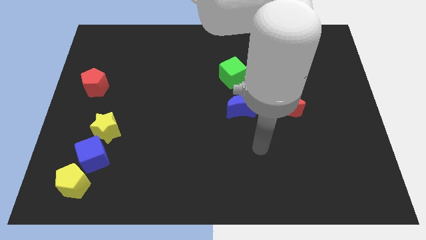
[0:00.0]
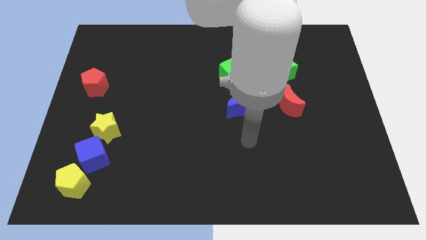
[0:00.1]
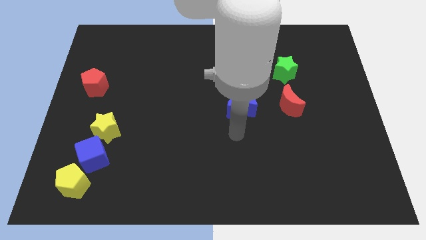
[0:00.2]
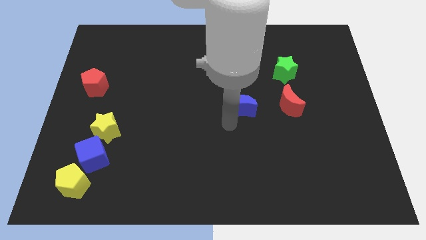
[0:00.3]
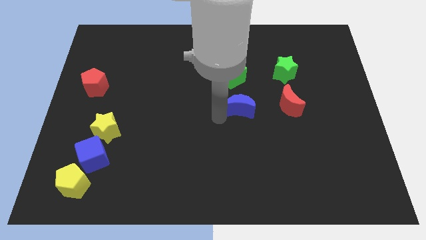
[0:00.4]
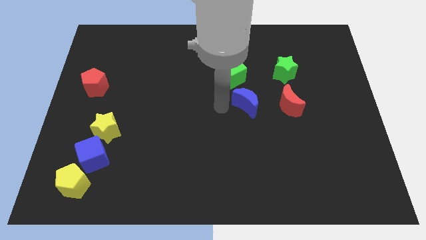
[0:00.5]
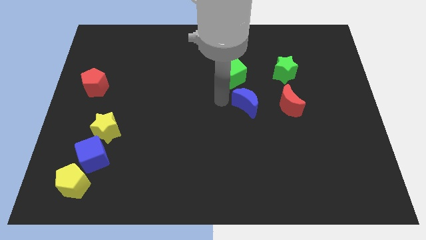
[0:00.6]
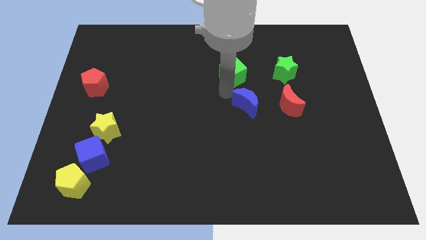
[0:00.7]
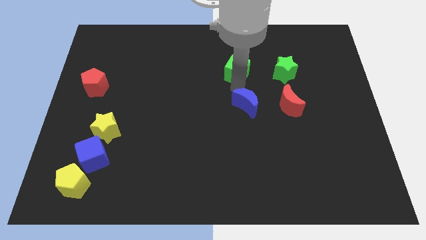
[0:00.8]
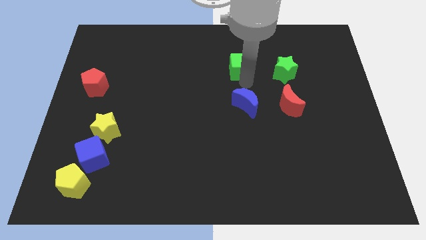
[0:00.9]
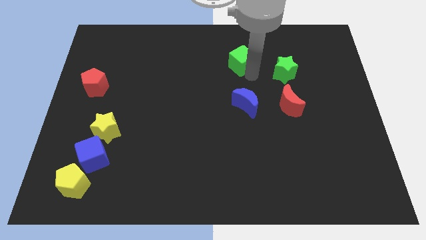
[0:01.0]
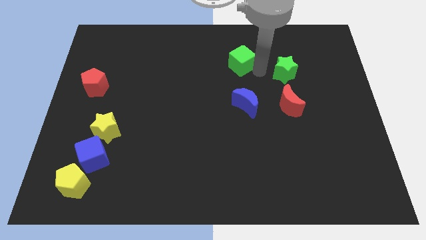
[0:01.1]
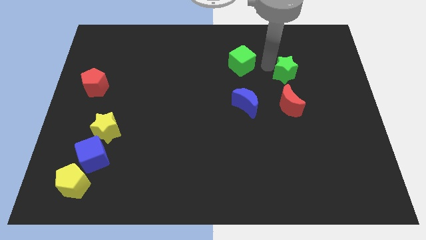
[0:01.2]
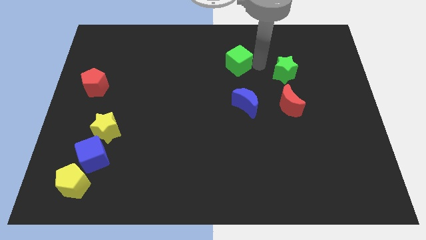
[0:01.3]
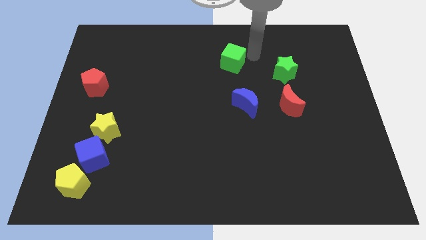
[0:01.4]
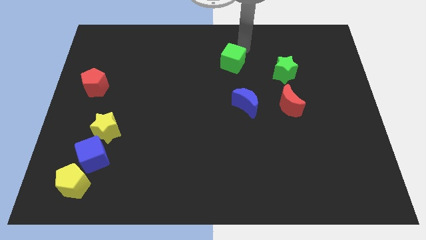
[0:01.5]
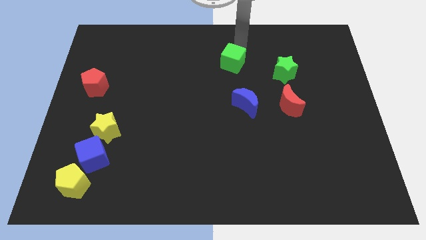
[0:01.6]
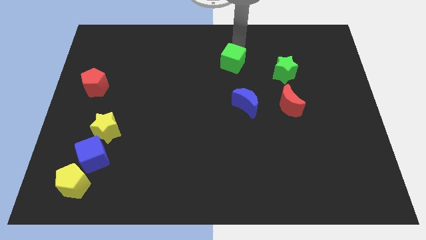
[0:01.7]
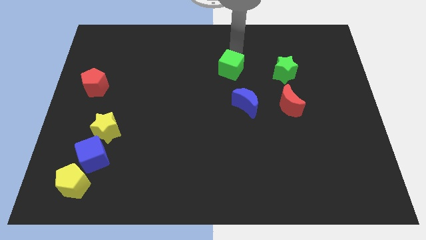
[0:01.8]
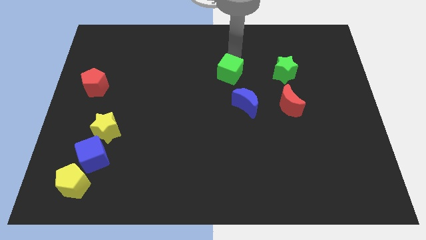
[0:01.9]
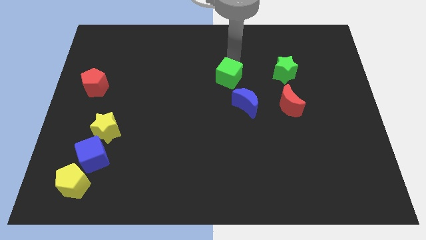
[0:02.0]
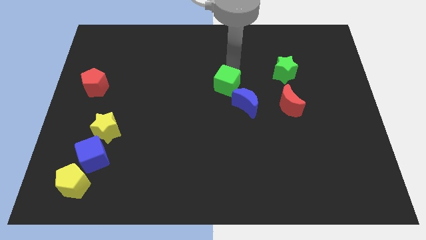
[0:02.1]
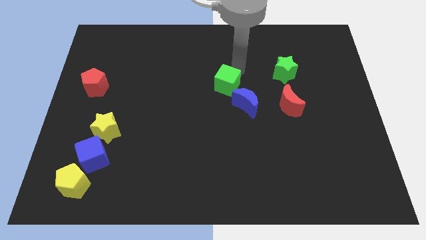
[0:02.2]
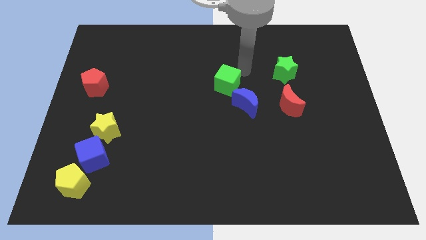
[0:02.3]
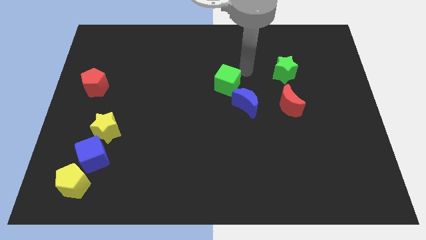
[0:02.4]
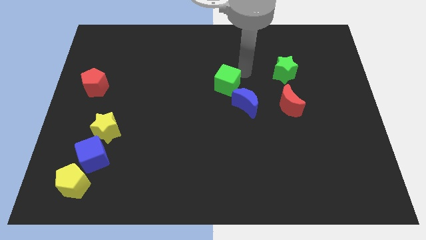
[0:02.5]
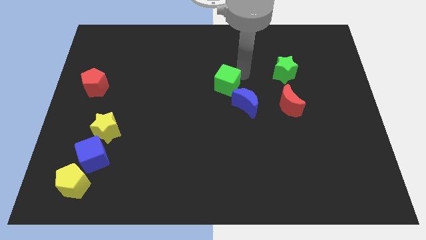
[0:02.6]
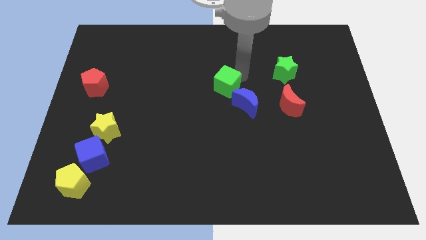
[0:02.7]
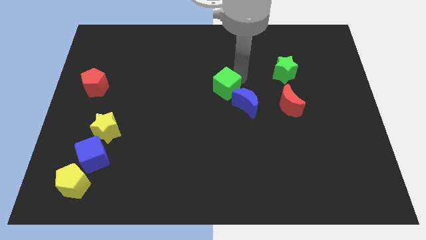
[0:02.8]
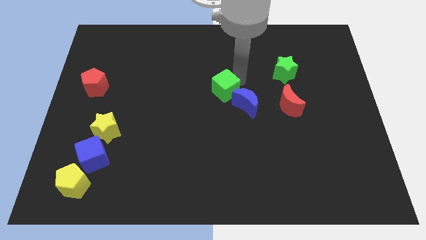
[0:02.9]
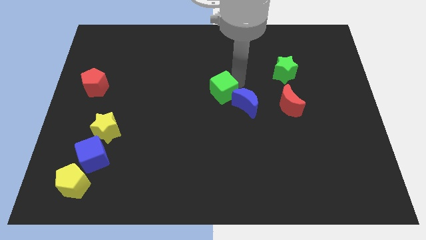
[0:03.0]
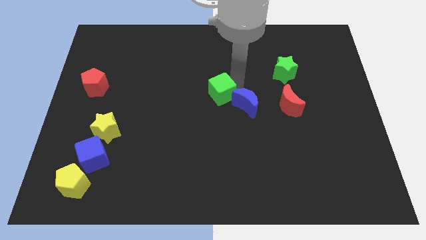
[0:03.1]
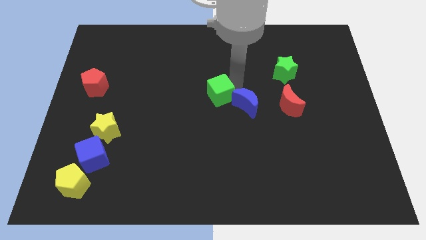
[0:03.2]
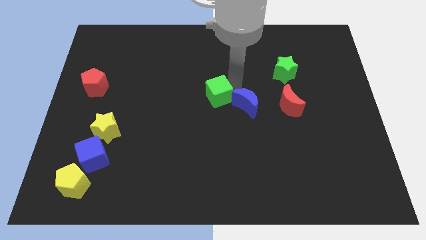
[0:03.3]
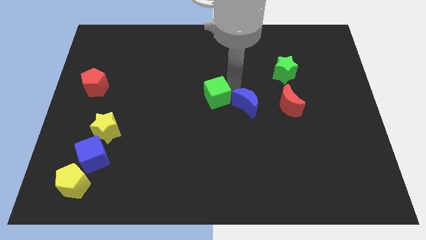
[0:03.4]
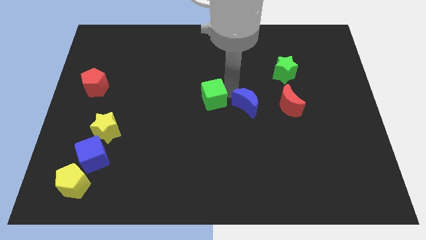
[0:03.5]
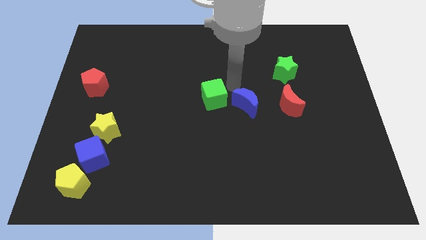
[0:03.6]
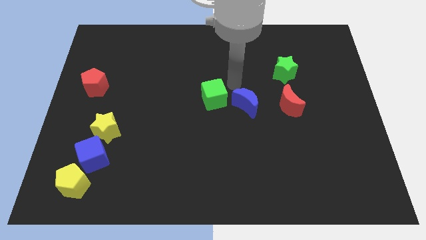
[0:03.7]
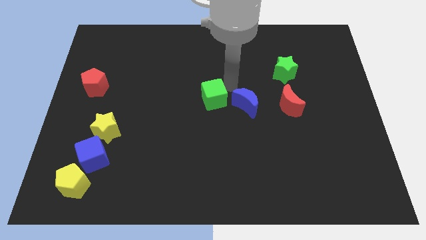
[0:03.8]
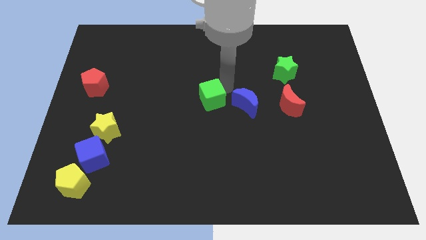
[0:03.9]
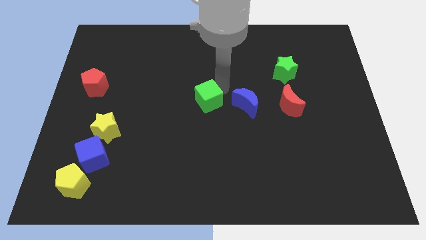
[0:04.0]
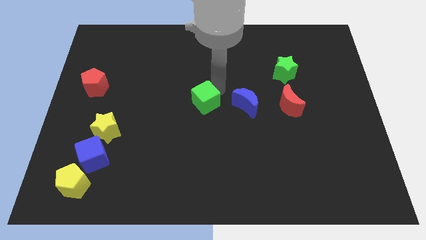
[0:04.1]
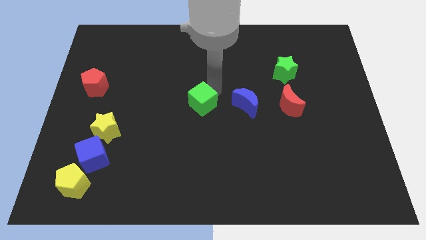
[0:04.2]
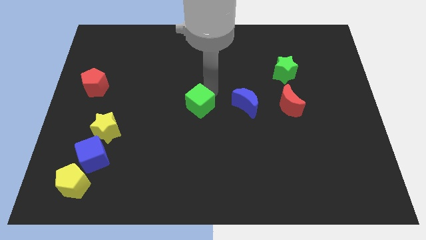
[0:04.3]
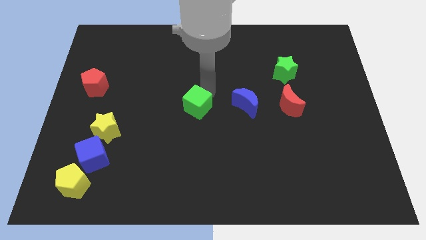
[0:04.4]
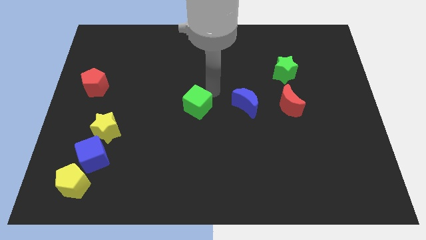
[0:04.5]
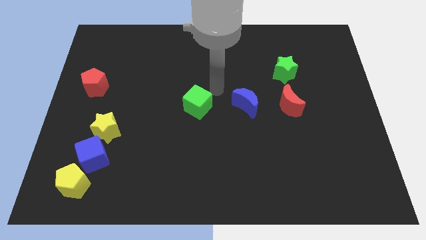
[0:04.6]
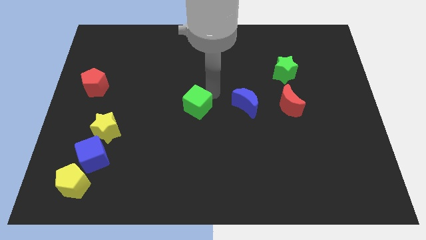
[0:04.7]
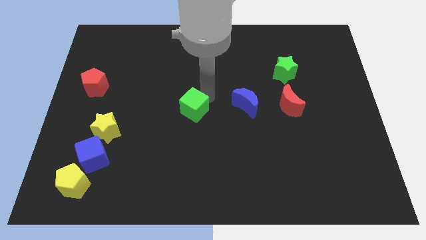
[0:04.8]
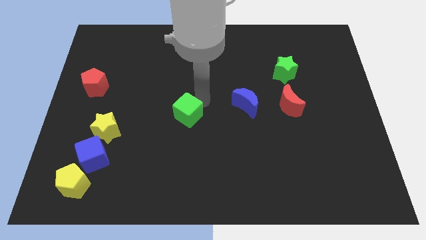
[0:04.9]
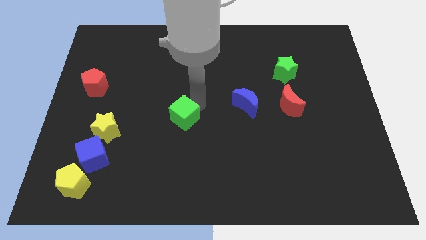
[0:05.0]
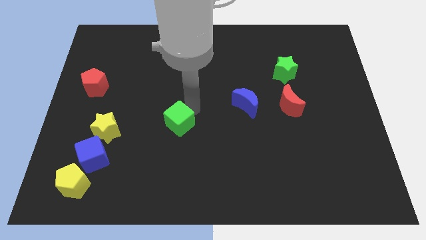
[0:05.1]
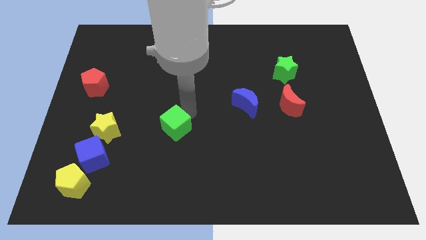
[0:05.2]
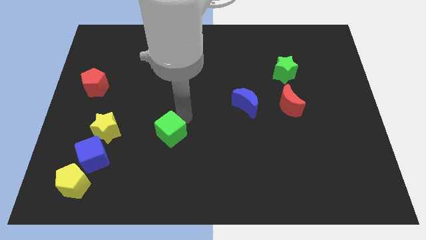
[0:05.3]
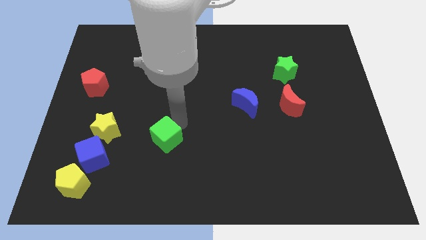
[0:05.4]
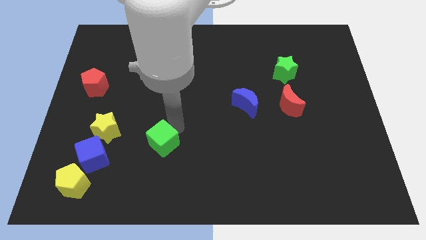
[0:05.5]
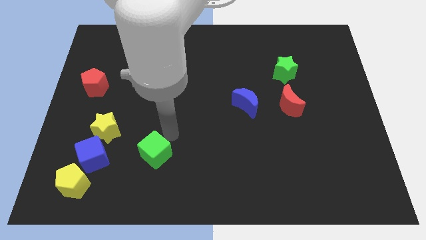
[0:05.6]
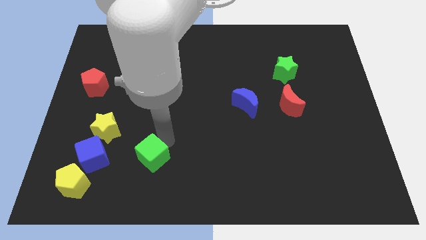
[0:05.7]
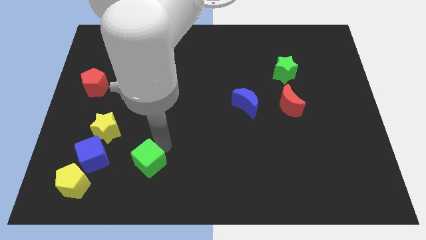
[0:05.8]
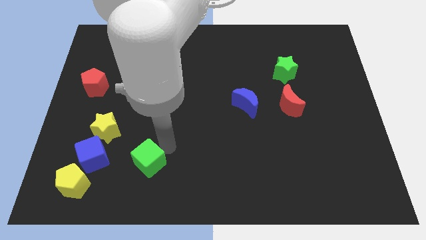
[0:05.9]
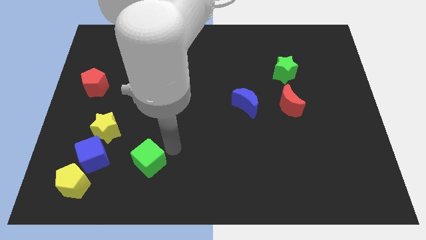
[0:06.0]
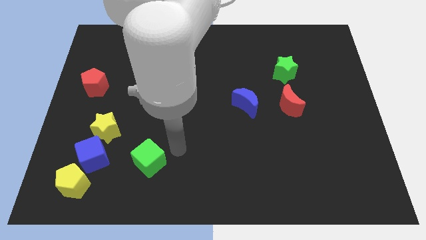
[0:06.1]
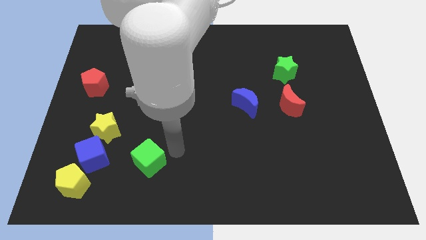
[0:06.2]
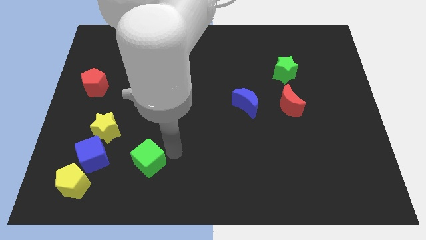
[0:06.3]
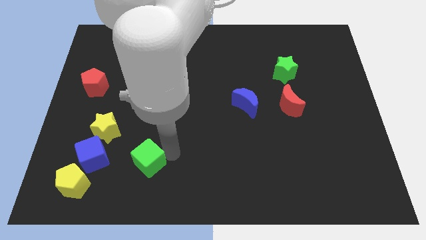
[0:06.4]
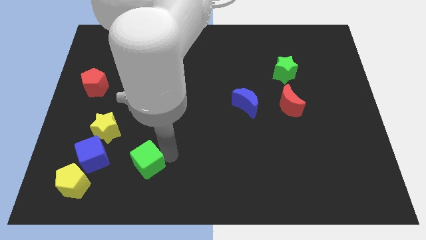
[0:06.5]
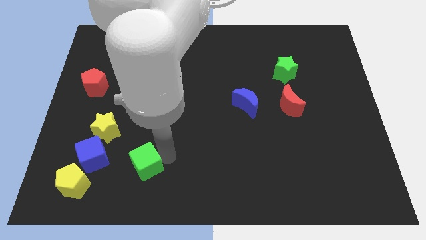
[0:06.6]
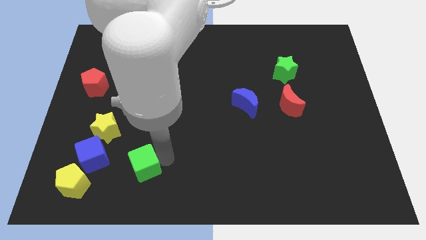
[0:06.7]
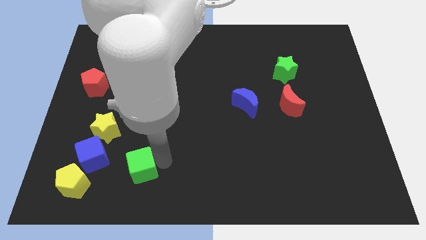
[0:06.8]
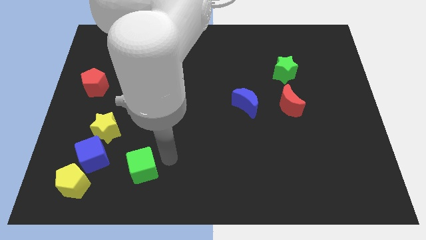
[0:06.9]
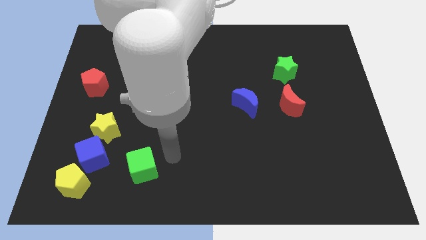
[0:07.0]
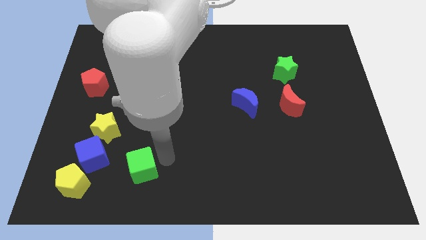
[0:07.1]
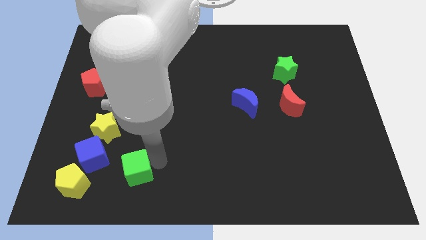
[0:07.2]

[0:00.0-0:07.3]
move the green cube to the bottom right side of the blue cube
